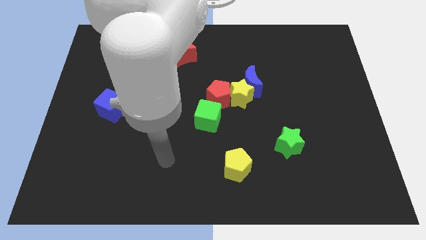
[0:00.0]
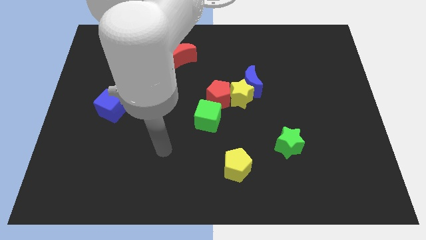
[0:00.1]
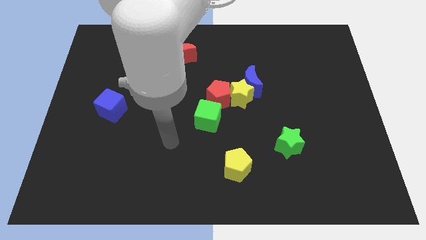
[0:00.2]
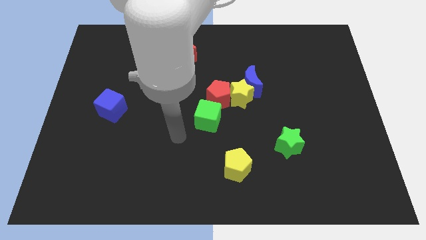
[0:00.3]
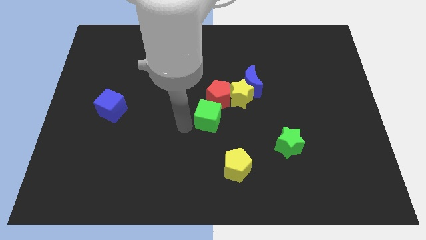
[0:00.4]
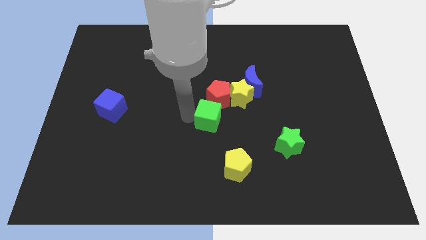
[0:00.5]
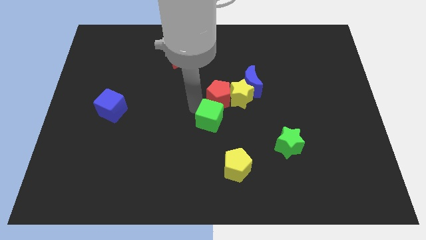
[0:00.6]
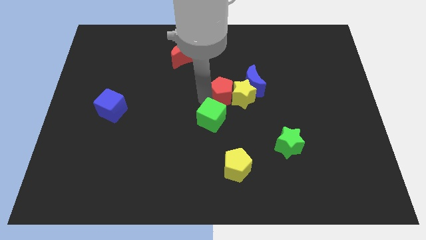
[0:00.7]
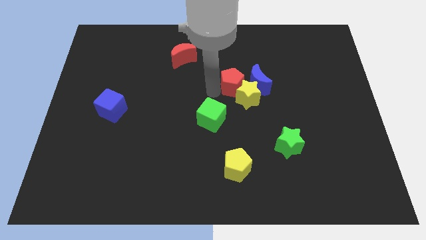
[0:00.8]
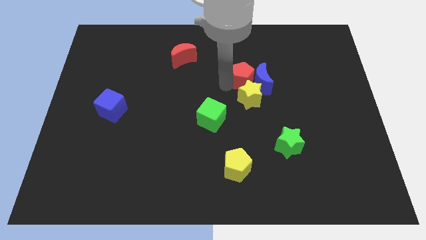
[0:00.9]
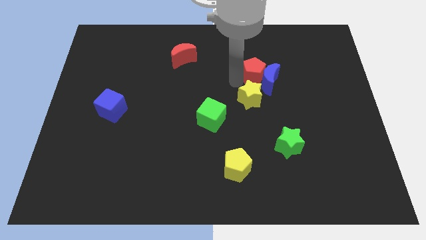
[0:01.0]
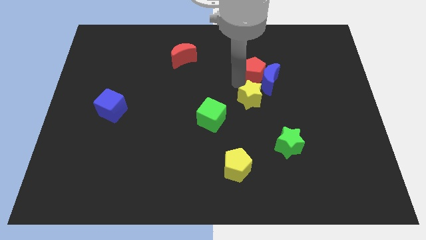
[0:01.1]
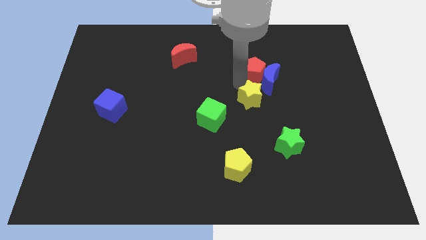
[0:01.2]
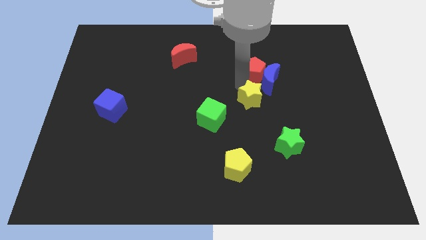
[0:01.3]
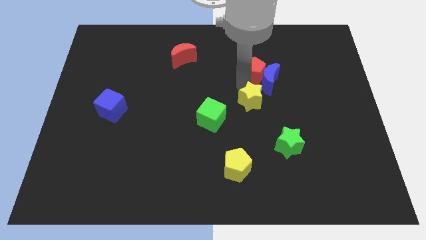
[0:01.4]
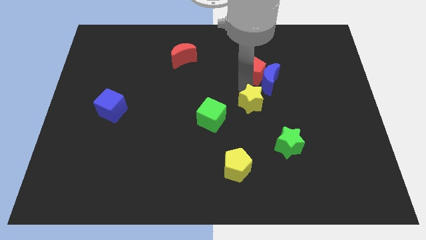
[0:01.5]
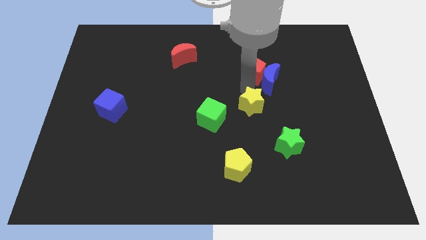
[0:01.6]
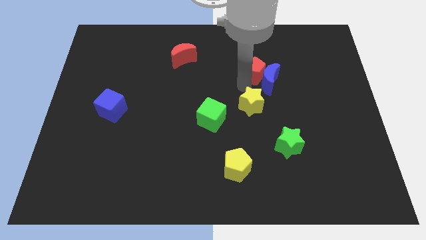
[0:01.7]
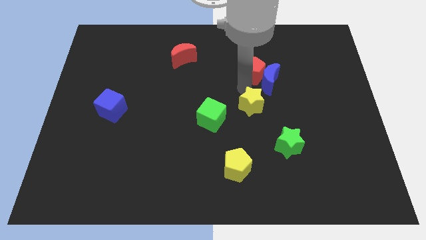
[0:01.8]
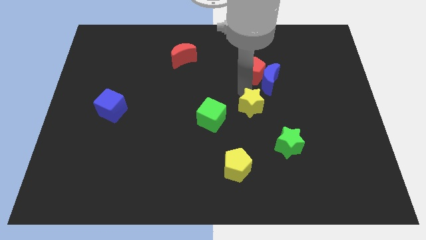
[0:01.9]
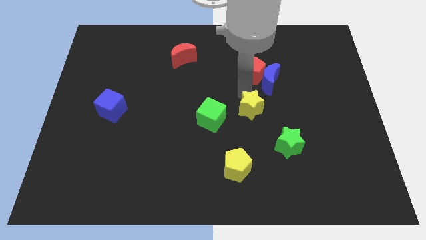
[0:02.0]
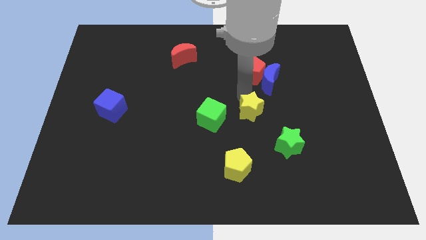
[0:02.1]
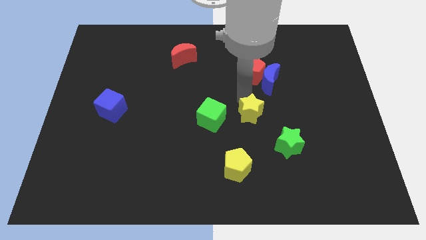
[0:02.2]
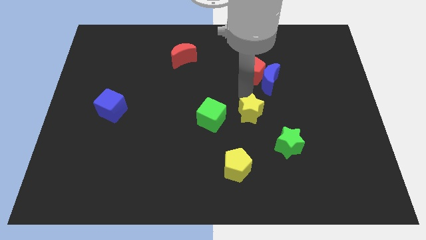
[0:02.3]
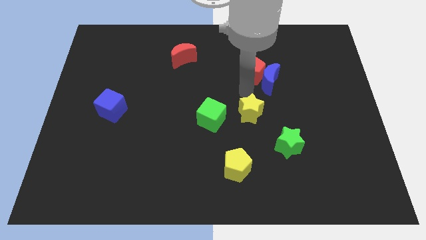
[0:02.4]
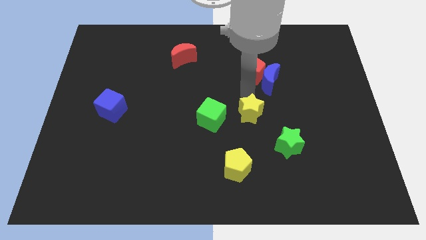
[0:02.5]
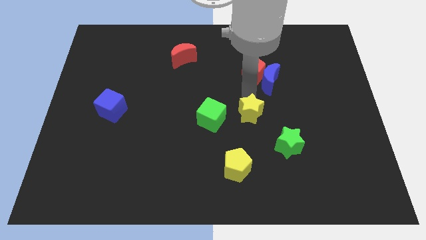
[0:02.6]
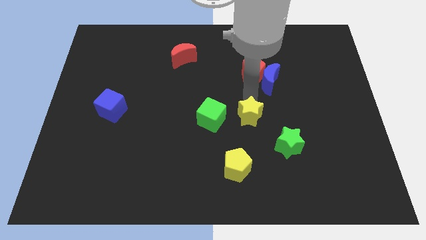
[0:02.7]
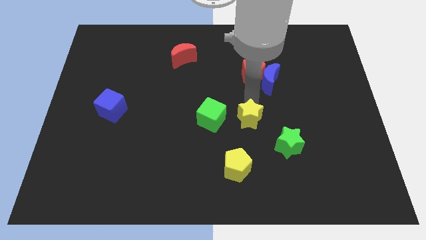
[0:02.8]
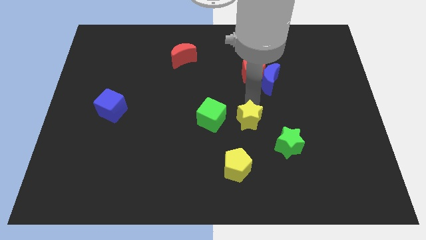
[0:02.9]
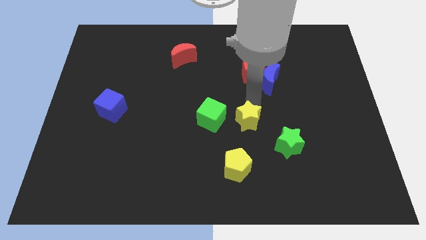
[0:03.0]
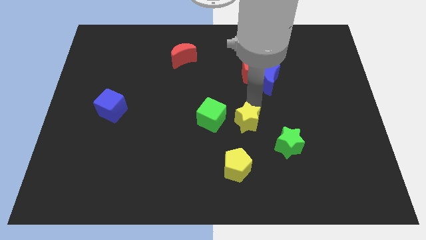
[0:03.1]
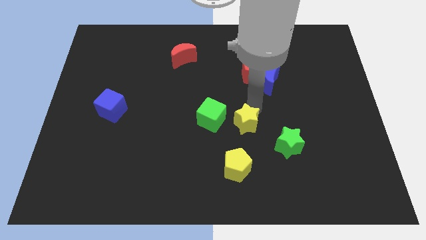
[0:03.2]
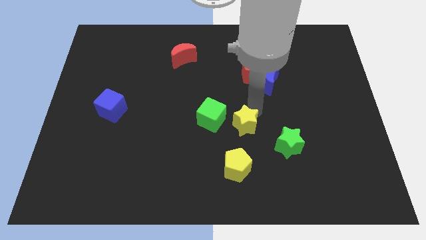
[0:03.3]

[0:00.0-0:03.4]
pull the yellow star apart from the group of blocks

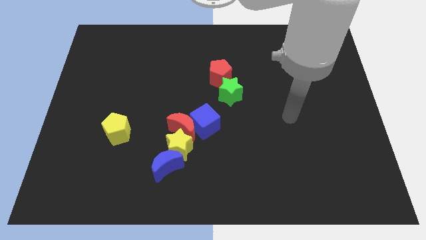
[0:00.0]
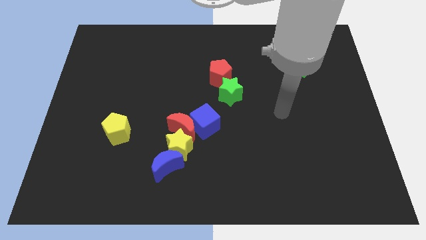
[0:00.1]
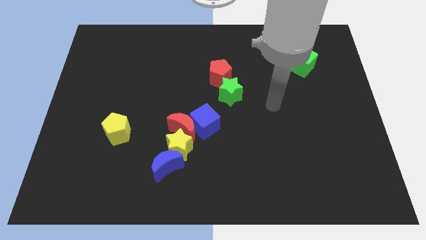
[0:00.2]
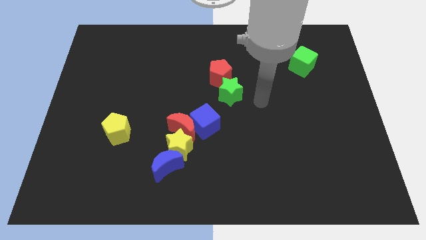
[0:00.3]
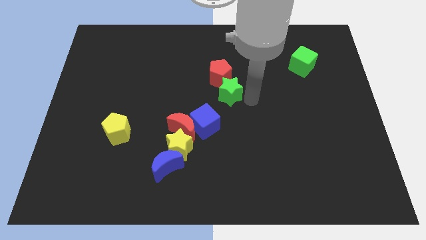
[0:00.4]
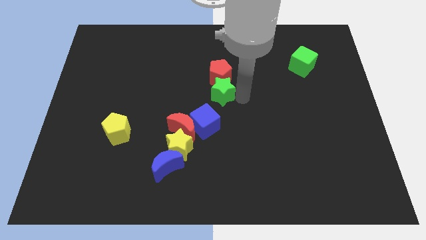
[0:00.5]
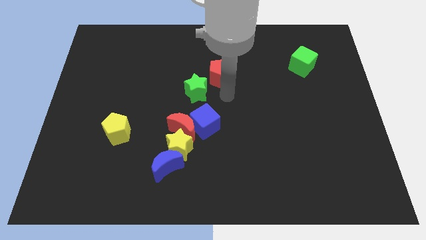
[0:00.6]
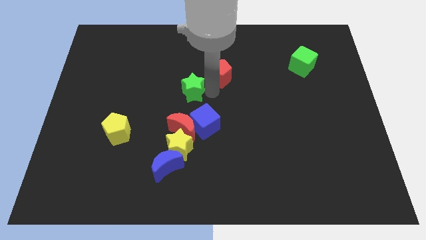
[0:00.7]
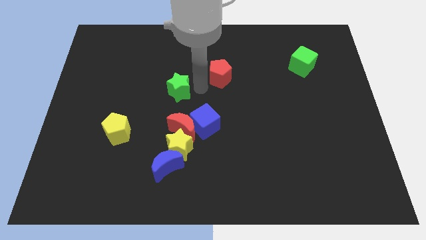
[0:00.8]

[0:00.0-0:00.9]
move the red pentagon away from the green star

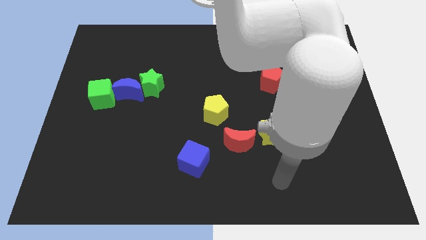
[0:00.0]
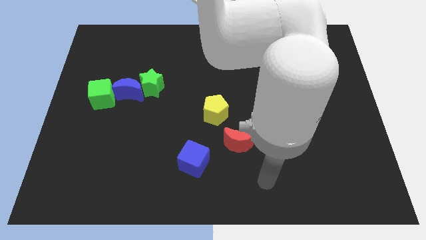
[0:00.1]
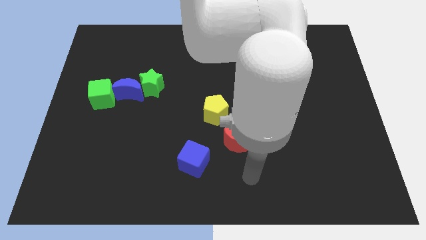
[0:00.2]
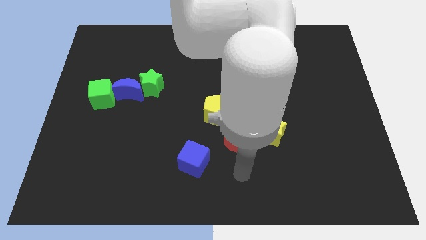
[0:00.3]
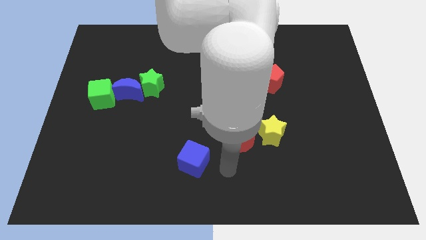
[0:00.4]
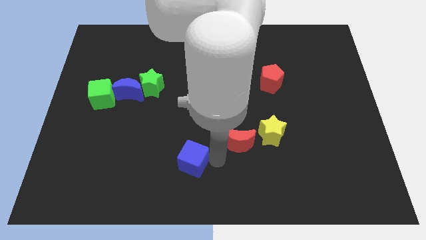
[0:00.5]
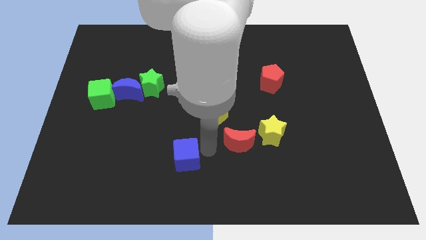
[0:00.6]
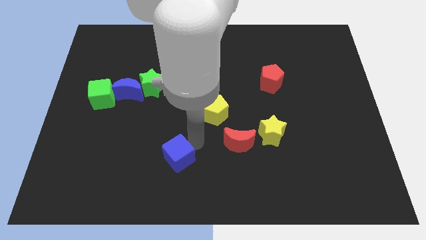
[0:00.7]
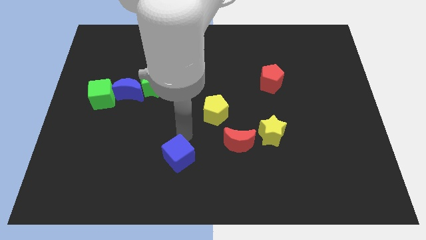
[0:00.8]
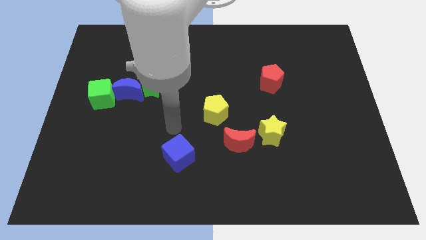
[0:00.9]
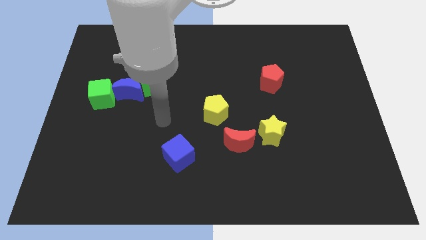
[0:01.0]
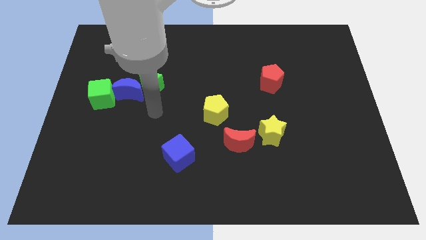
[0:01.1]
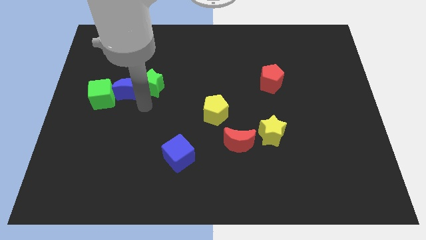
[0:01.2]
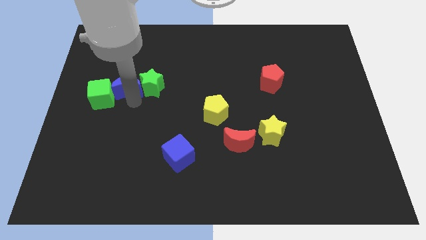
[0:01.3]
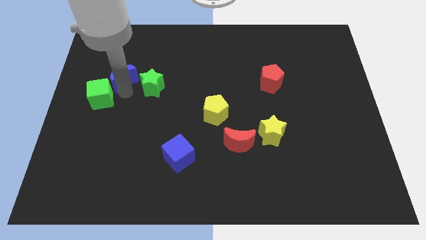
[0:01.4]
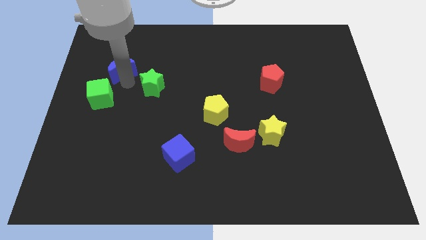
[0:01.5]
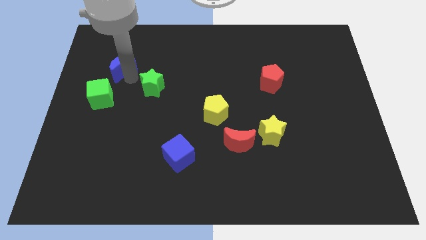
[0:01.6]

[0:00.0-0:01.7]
separate the green star from the blue moon

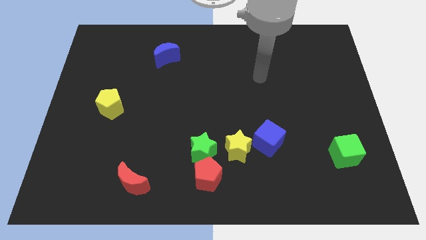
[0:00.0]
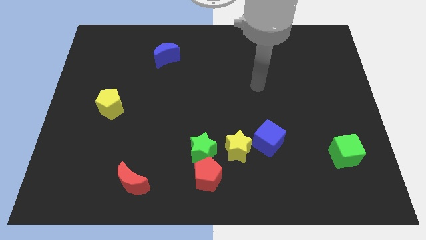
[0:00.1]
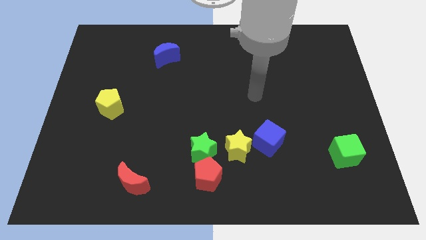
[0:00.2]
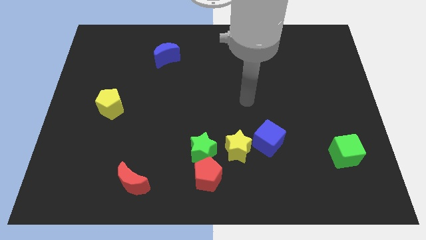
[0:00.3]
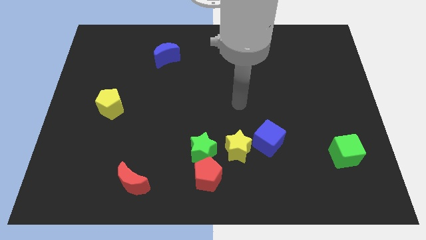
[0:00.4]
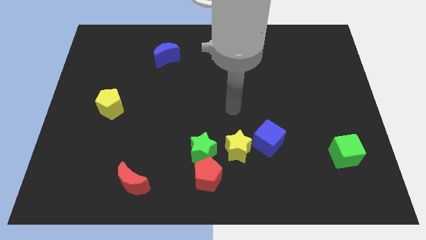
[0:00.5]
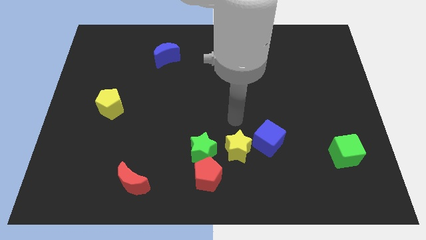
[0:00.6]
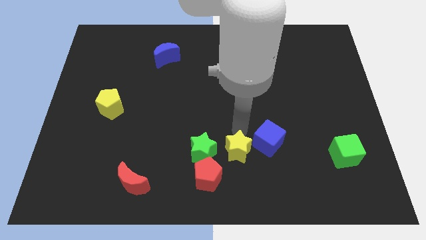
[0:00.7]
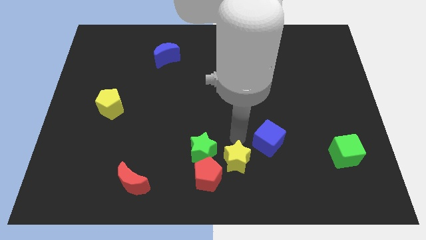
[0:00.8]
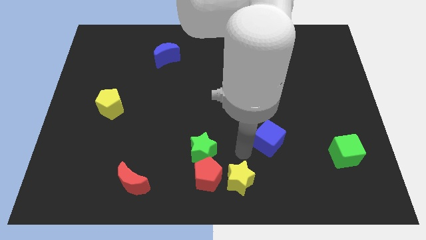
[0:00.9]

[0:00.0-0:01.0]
pull the blue cube apart from the yellow star

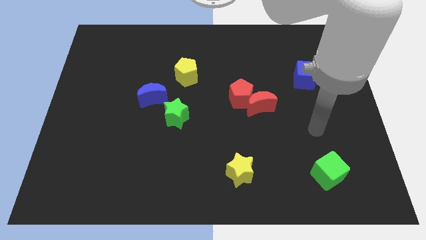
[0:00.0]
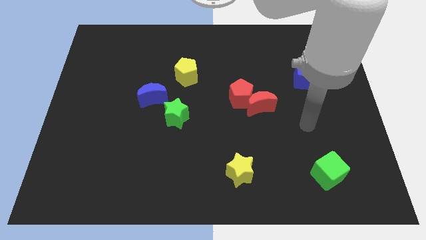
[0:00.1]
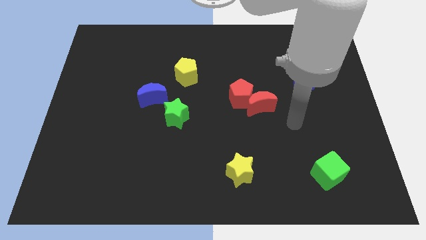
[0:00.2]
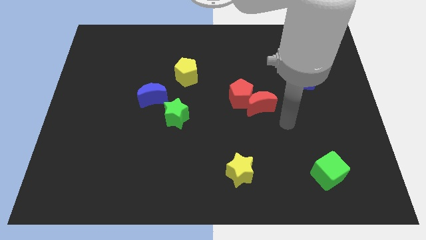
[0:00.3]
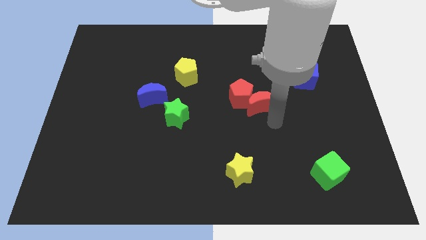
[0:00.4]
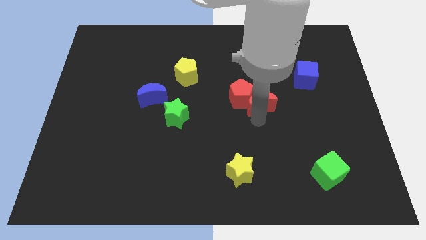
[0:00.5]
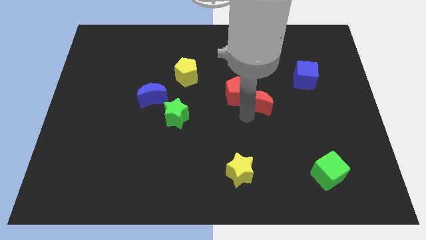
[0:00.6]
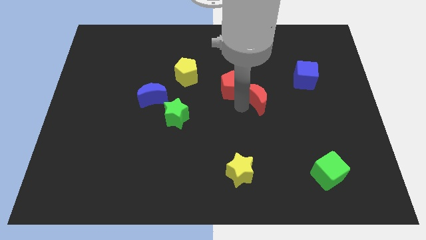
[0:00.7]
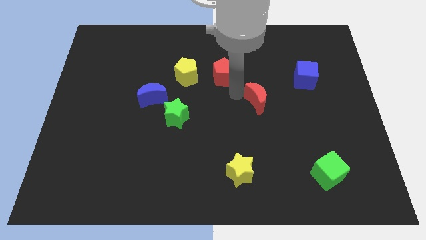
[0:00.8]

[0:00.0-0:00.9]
move the red moon away from the red pentagon

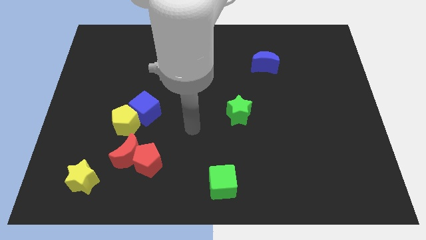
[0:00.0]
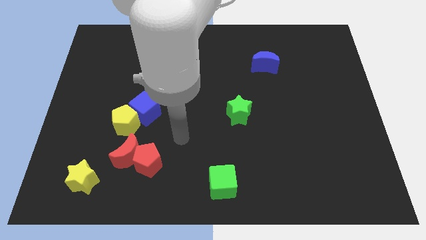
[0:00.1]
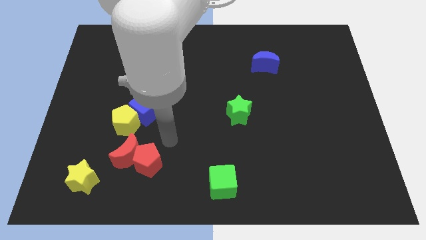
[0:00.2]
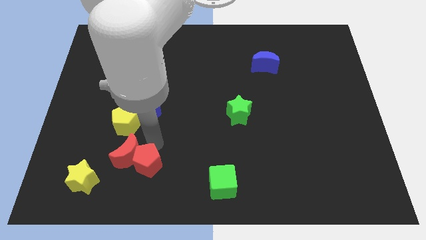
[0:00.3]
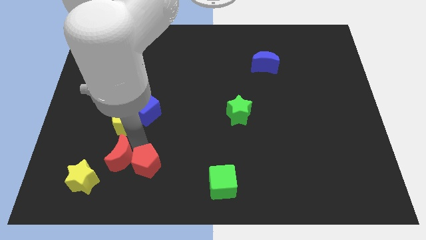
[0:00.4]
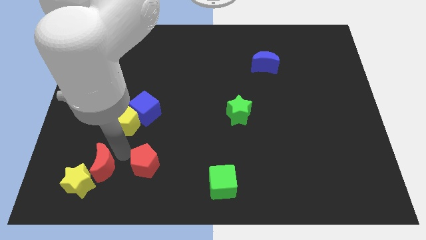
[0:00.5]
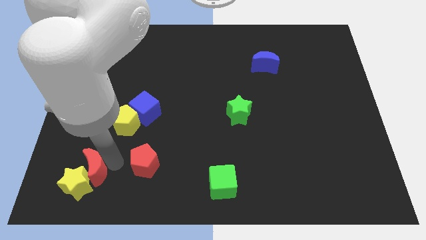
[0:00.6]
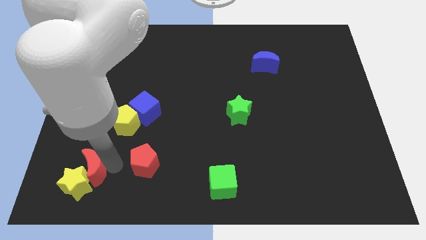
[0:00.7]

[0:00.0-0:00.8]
separate the red pentagon from the red moon

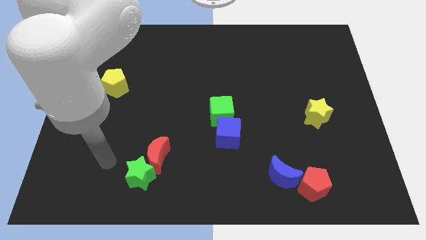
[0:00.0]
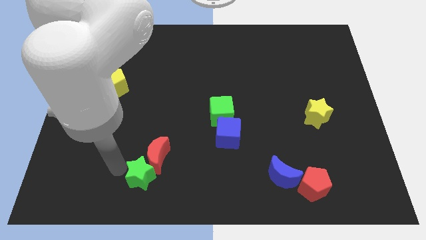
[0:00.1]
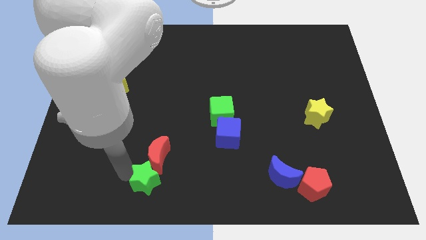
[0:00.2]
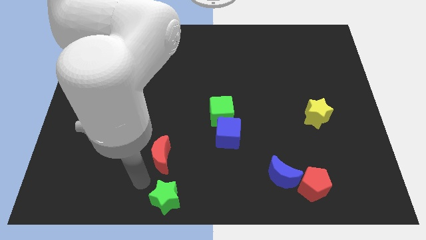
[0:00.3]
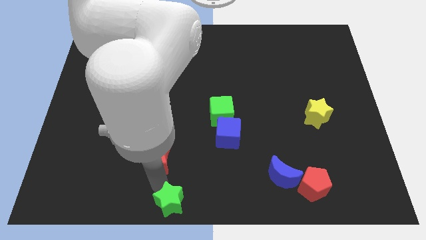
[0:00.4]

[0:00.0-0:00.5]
move the red moon away from the green star
